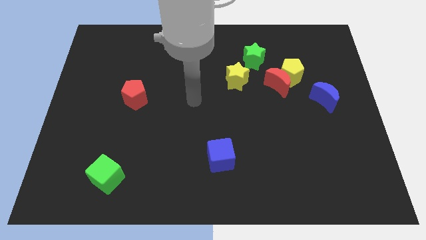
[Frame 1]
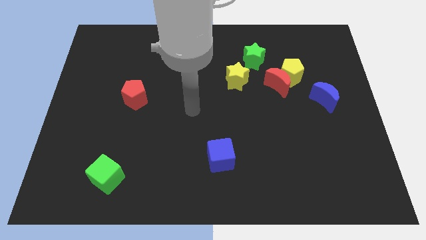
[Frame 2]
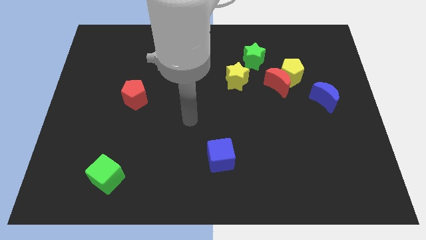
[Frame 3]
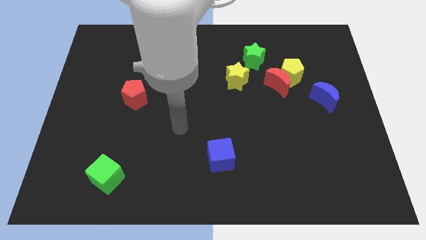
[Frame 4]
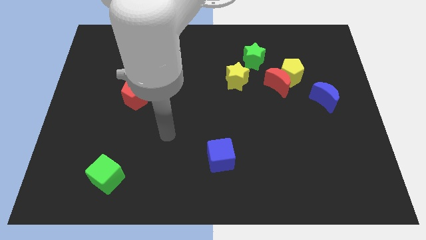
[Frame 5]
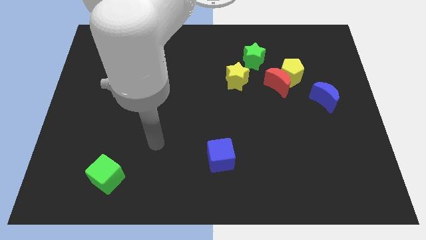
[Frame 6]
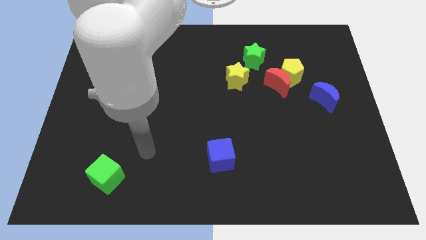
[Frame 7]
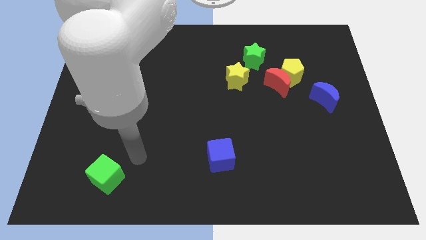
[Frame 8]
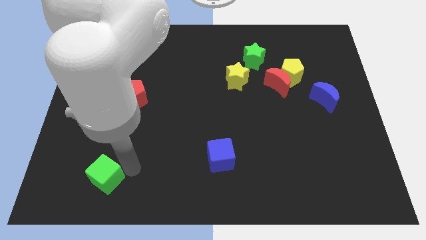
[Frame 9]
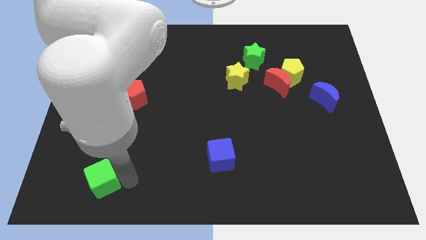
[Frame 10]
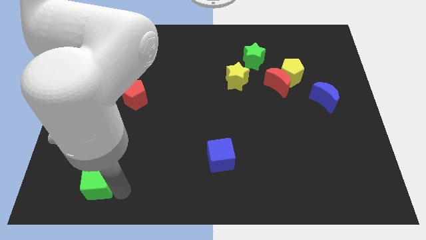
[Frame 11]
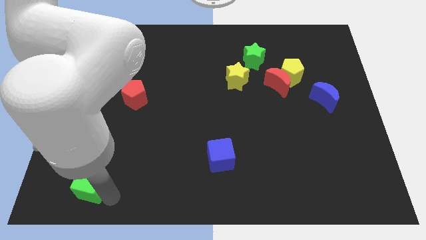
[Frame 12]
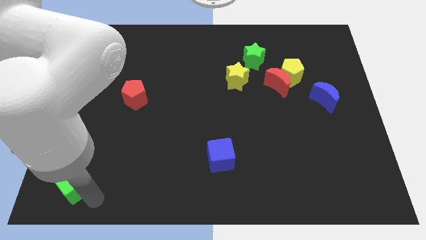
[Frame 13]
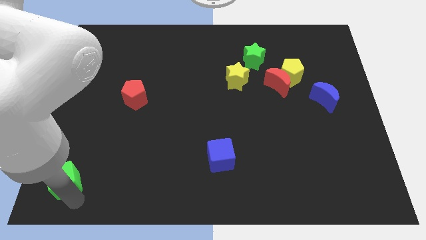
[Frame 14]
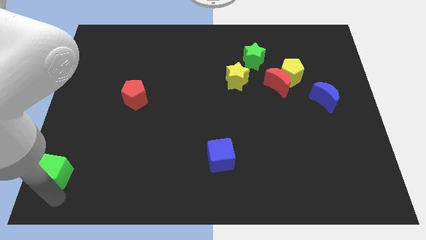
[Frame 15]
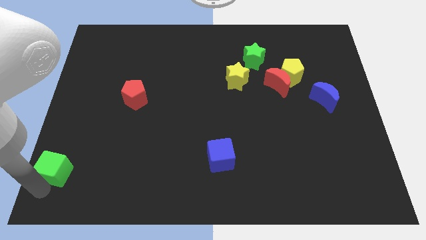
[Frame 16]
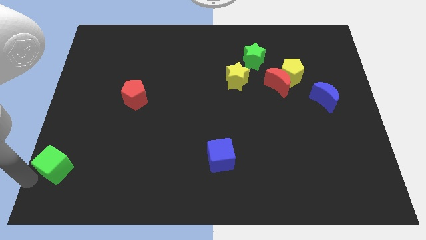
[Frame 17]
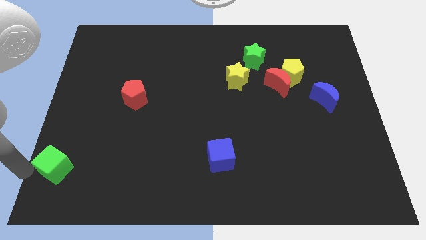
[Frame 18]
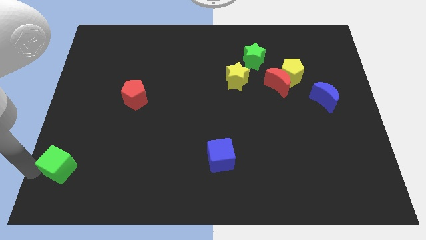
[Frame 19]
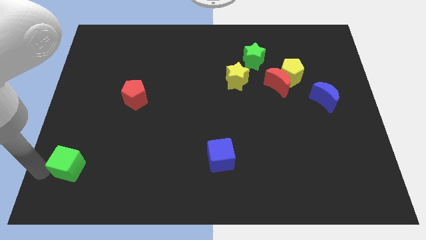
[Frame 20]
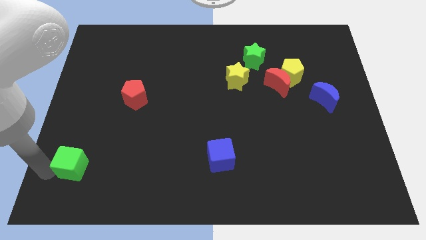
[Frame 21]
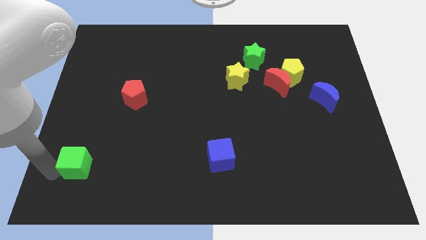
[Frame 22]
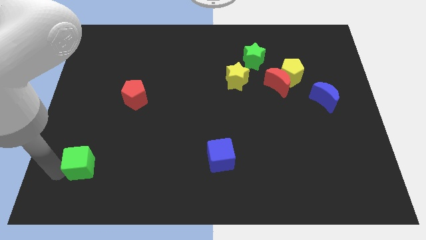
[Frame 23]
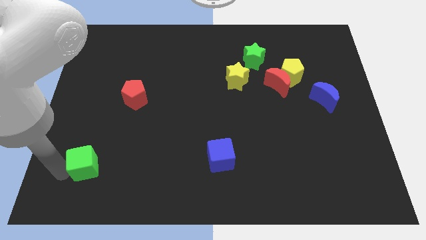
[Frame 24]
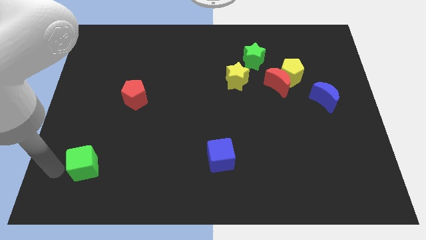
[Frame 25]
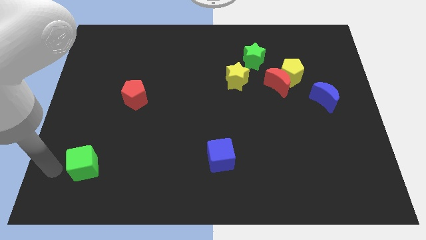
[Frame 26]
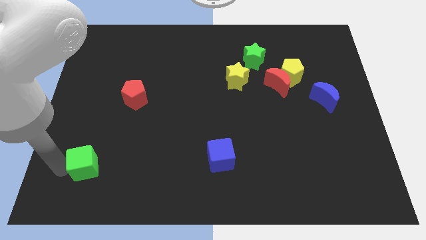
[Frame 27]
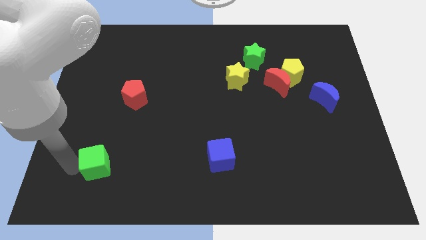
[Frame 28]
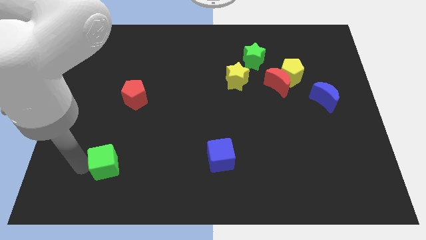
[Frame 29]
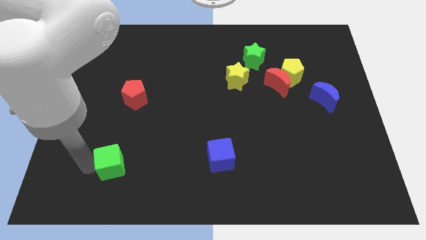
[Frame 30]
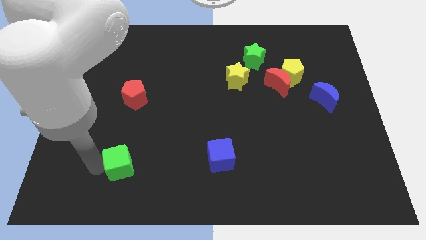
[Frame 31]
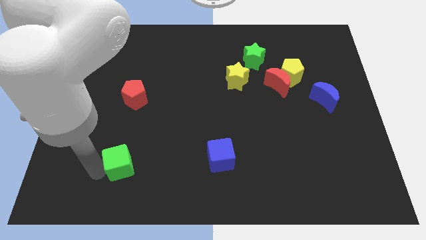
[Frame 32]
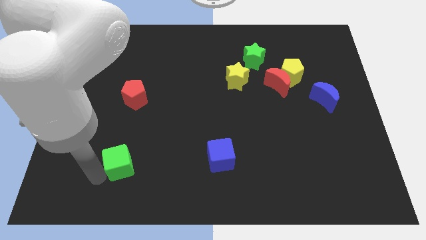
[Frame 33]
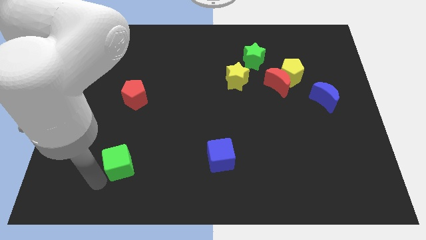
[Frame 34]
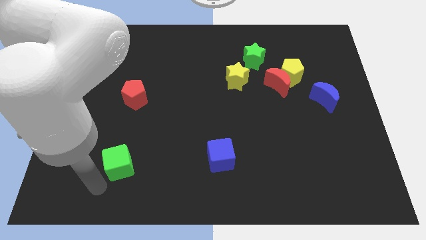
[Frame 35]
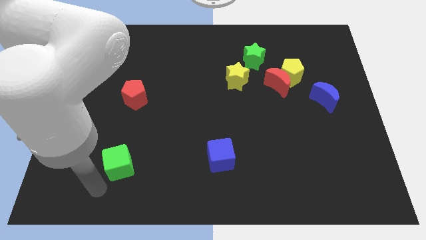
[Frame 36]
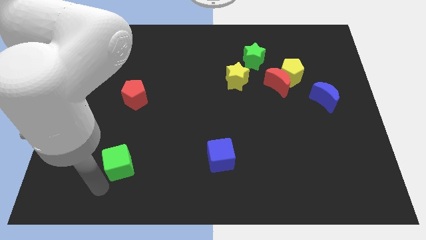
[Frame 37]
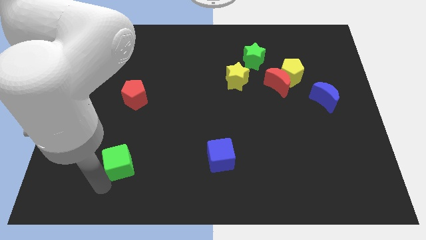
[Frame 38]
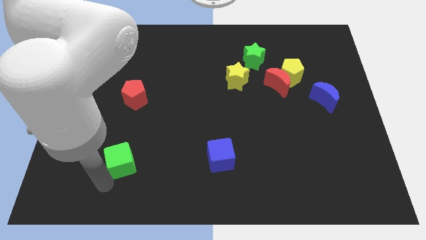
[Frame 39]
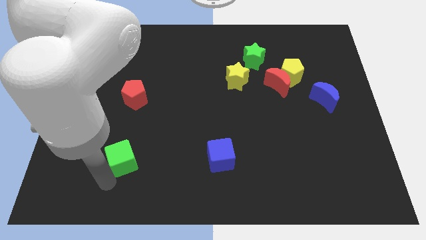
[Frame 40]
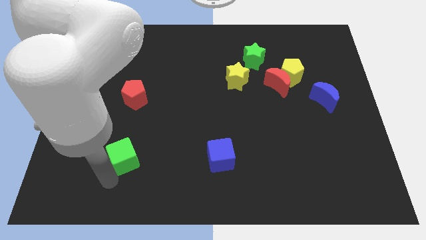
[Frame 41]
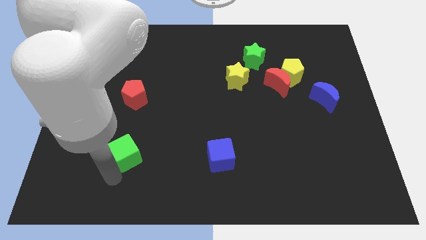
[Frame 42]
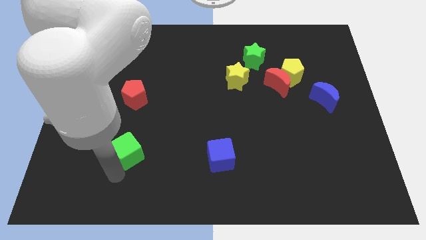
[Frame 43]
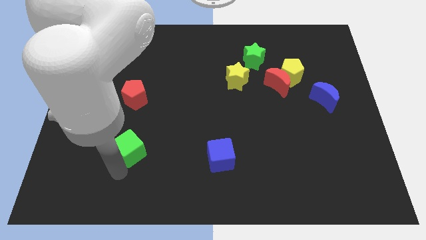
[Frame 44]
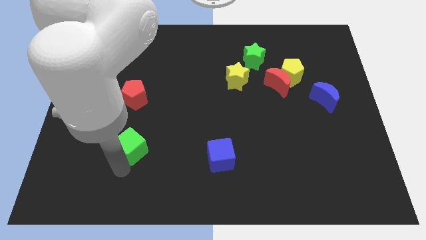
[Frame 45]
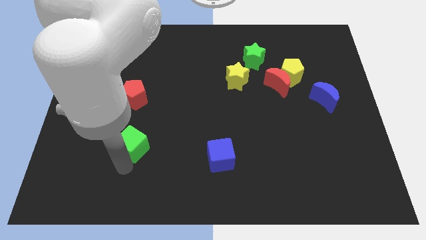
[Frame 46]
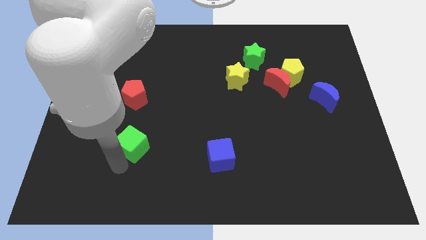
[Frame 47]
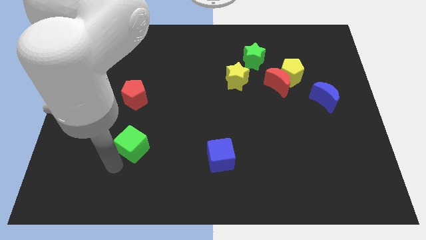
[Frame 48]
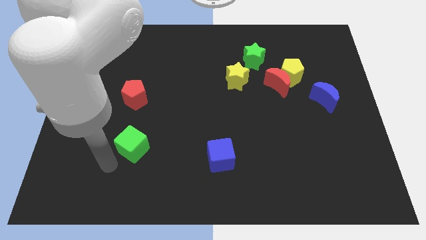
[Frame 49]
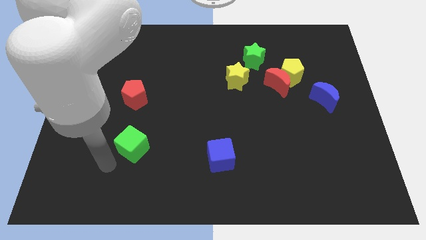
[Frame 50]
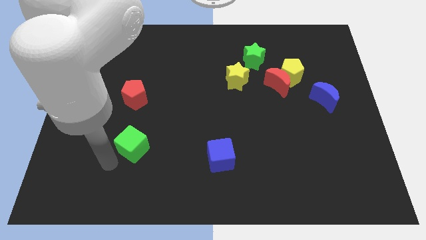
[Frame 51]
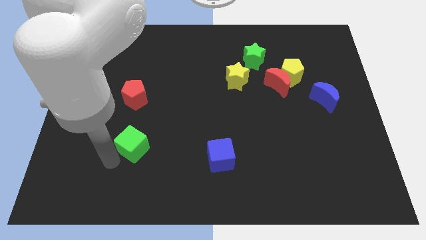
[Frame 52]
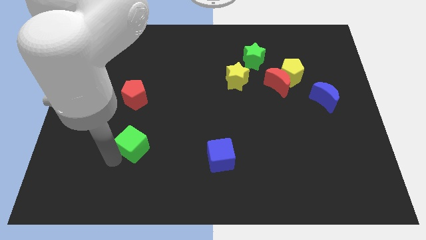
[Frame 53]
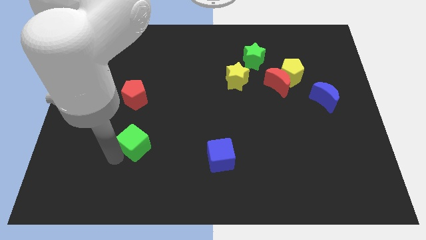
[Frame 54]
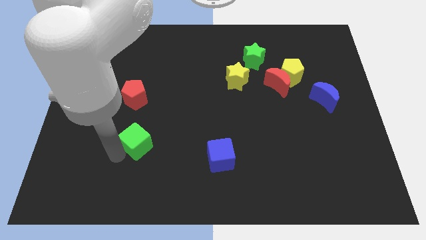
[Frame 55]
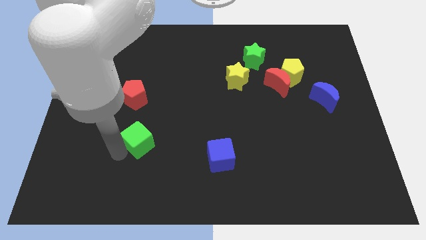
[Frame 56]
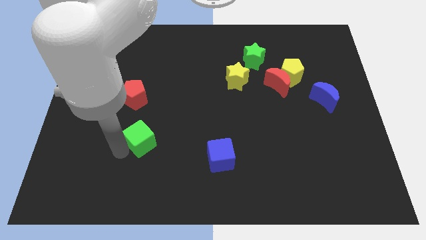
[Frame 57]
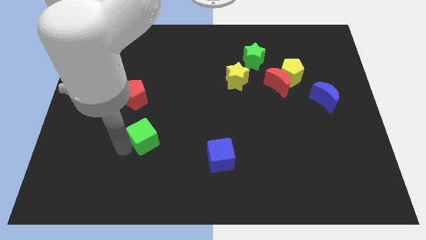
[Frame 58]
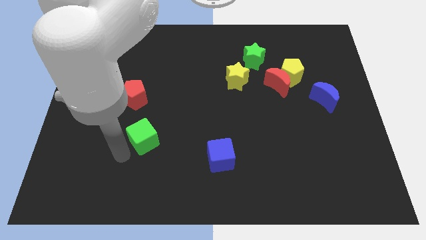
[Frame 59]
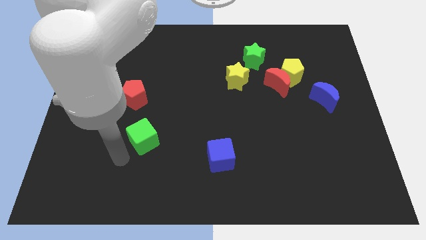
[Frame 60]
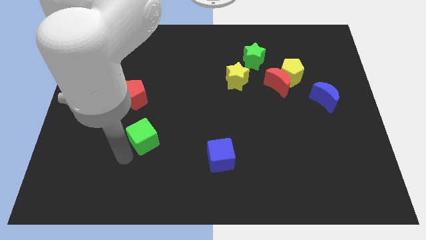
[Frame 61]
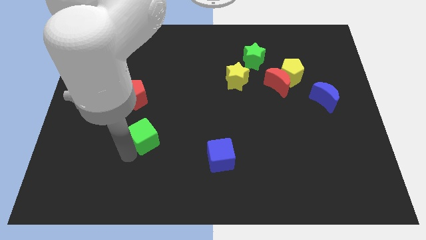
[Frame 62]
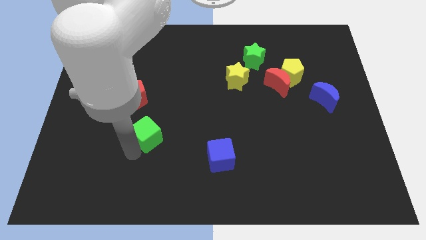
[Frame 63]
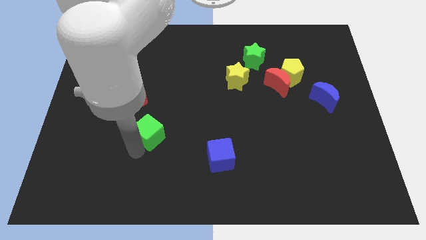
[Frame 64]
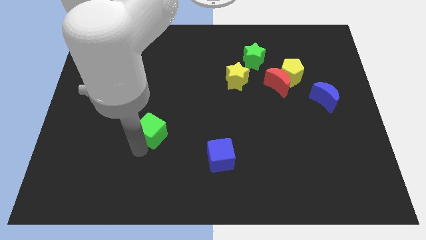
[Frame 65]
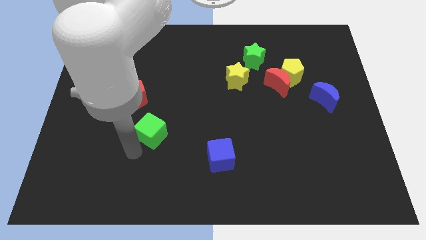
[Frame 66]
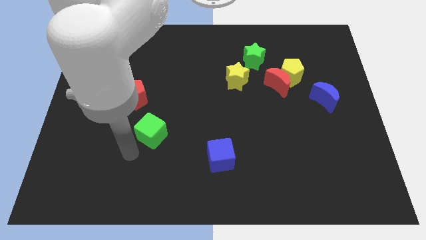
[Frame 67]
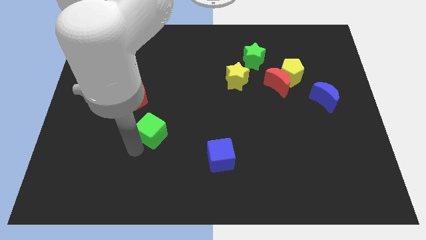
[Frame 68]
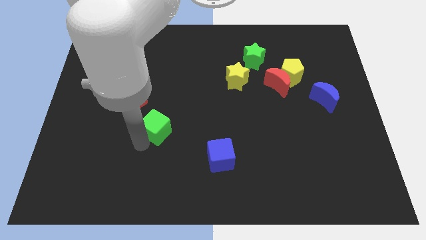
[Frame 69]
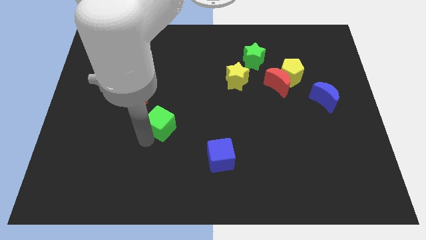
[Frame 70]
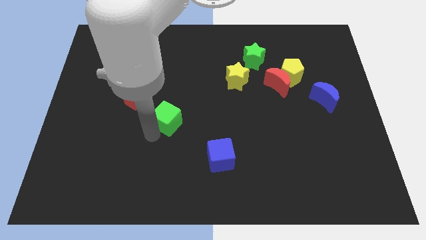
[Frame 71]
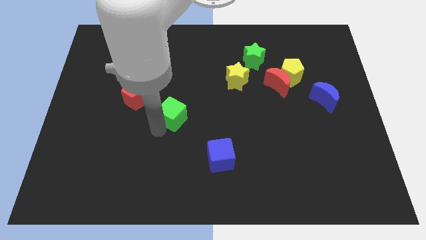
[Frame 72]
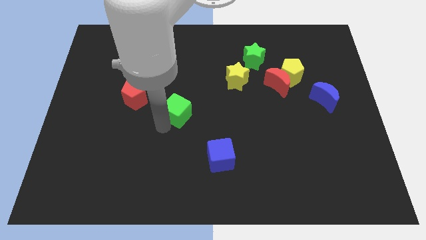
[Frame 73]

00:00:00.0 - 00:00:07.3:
push the green cube up and to the right

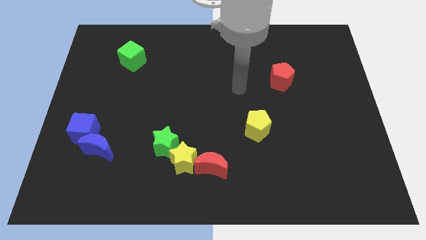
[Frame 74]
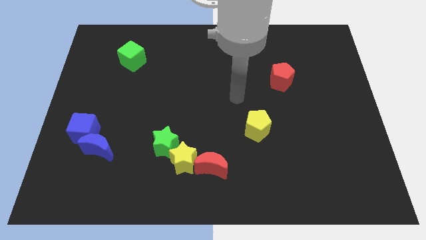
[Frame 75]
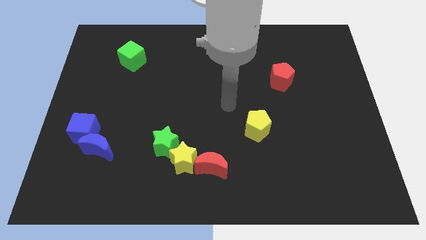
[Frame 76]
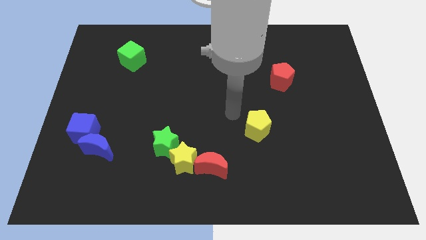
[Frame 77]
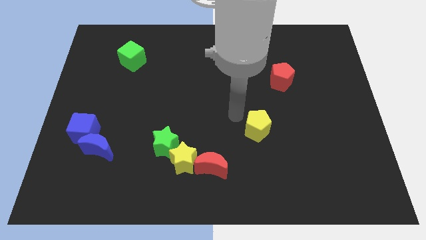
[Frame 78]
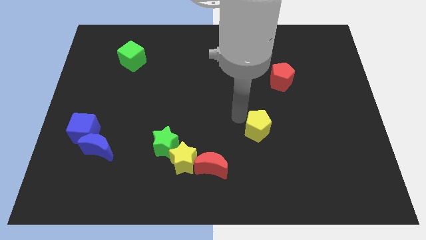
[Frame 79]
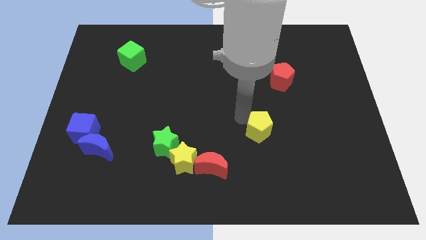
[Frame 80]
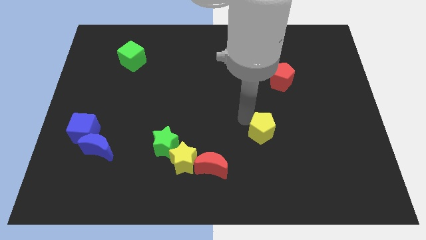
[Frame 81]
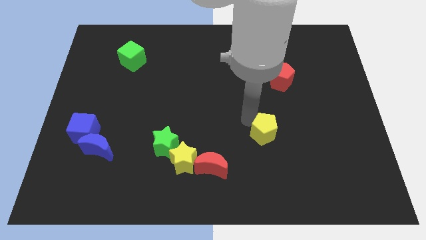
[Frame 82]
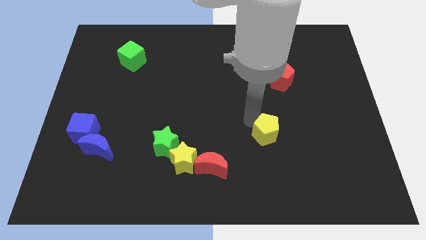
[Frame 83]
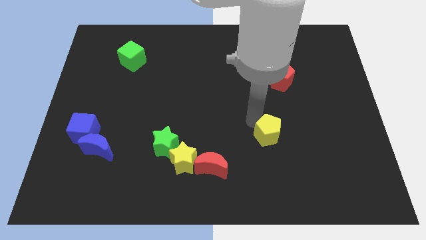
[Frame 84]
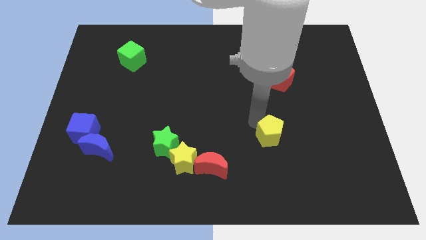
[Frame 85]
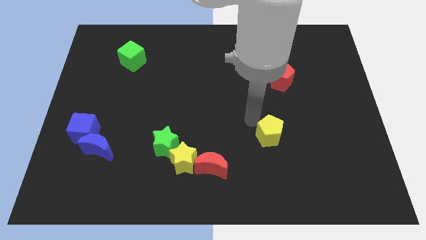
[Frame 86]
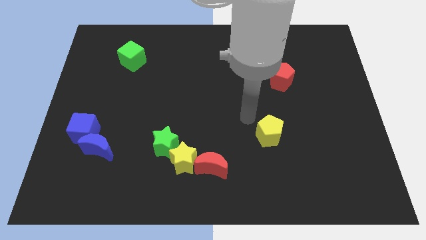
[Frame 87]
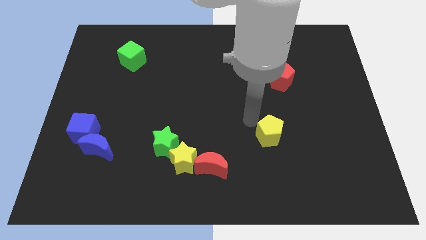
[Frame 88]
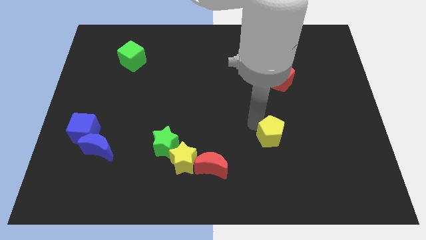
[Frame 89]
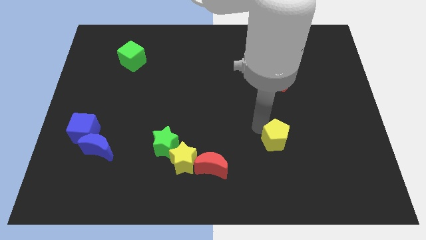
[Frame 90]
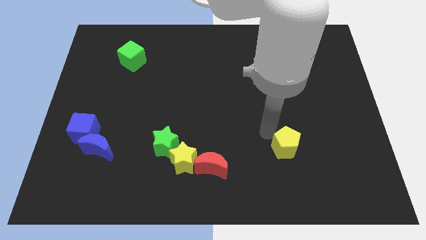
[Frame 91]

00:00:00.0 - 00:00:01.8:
slightly slide the yellow pentagon diagonally downwards and to the right
